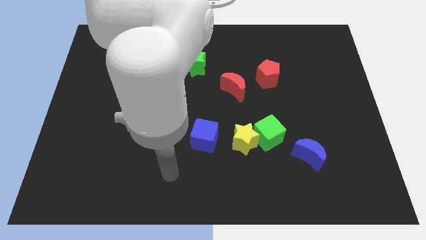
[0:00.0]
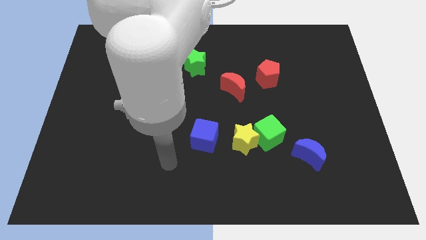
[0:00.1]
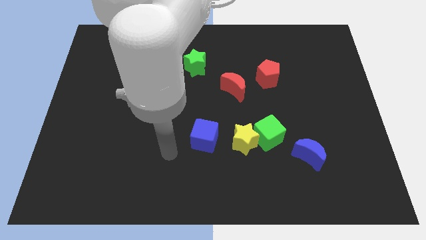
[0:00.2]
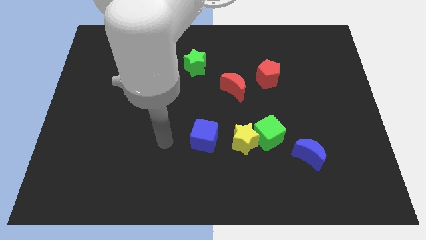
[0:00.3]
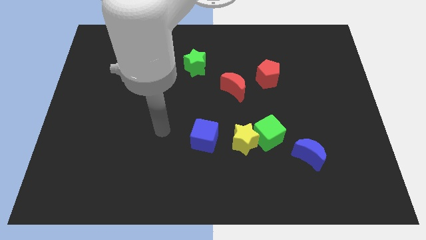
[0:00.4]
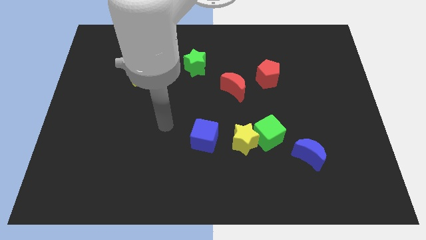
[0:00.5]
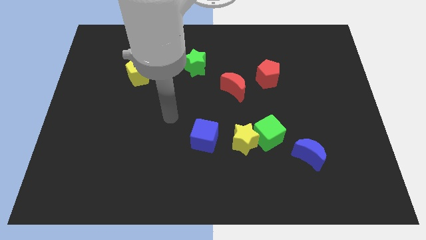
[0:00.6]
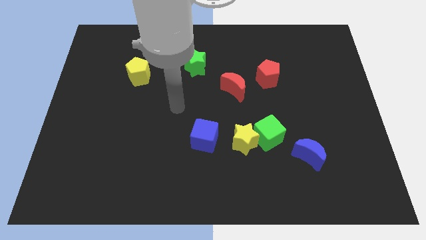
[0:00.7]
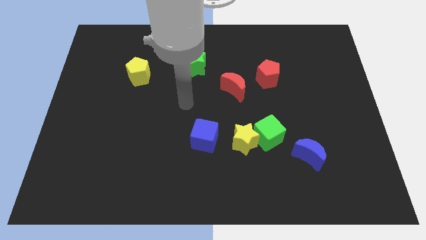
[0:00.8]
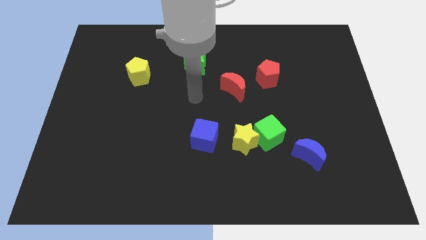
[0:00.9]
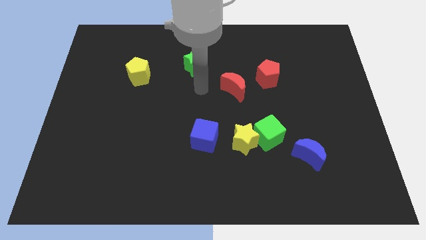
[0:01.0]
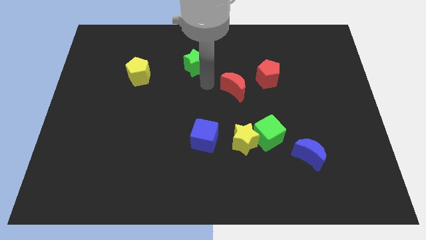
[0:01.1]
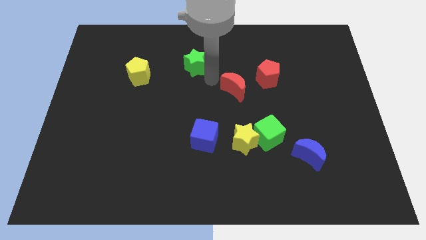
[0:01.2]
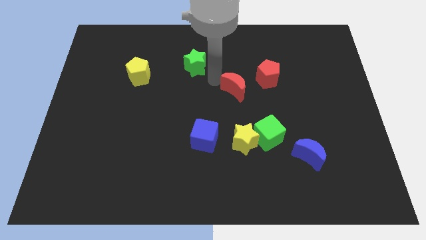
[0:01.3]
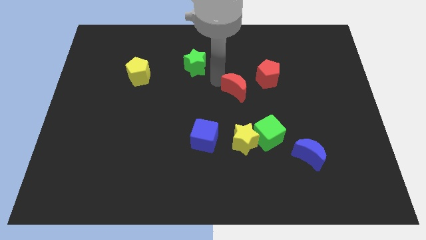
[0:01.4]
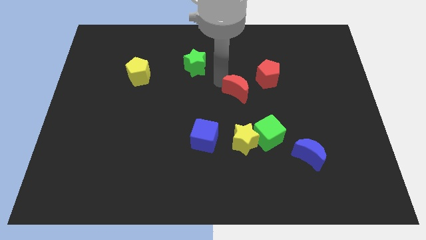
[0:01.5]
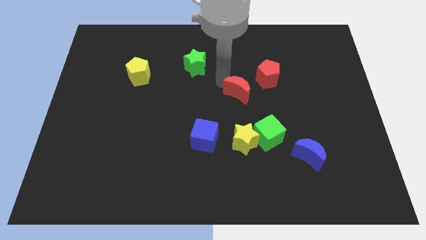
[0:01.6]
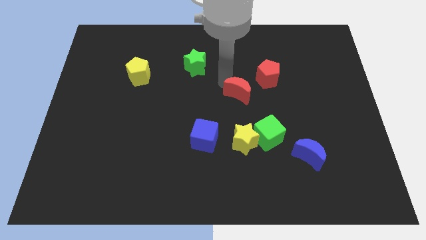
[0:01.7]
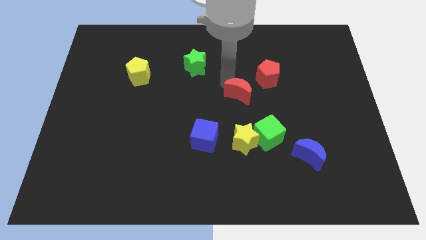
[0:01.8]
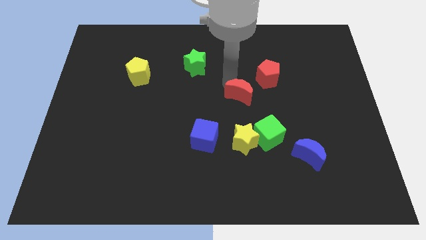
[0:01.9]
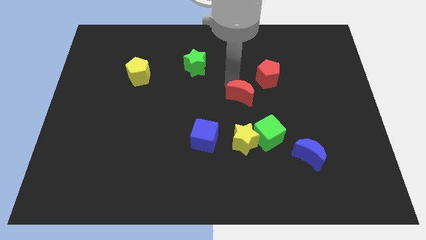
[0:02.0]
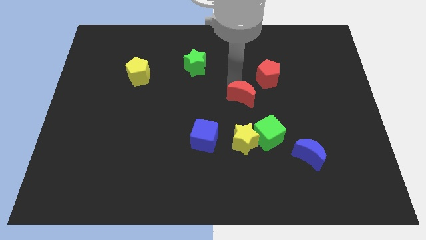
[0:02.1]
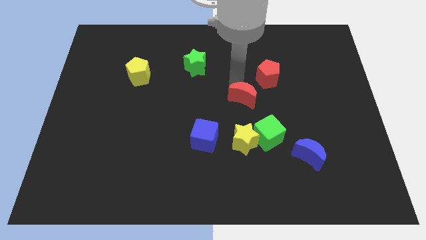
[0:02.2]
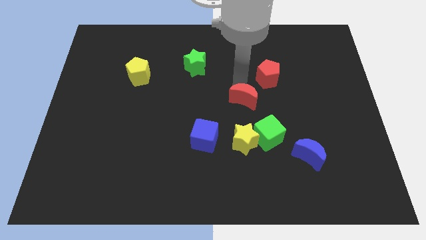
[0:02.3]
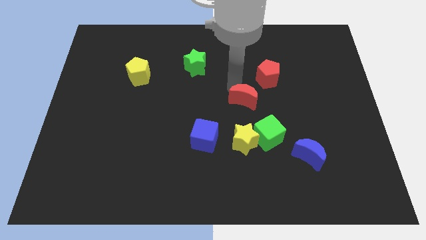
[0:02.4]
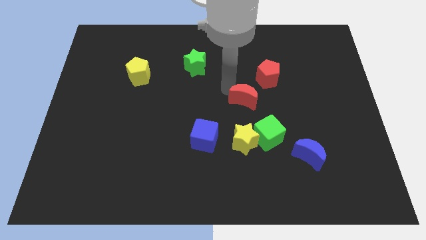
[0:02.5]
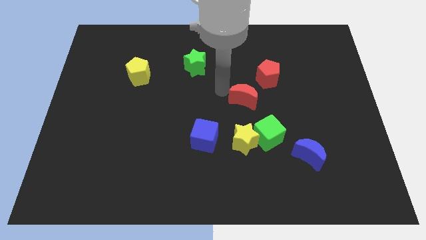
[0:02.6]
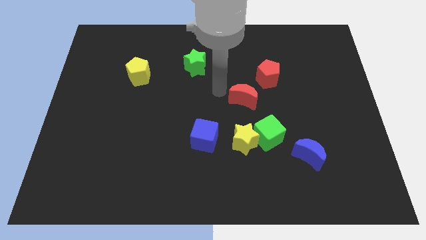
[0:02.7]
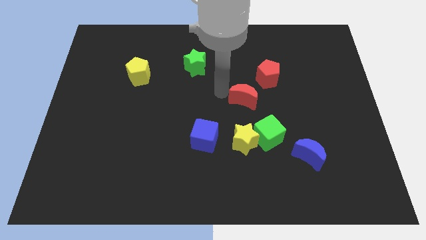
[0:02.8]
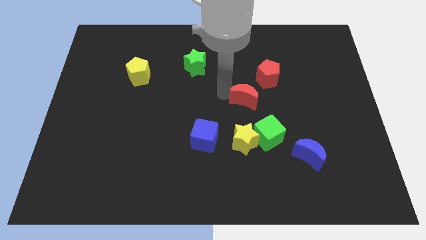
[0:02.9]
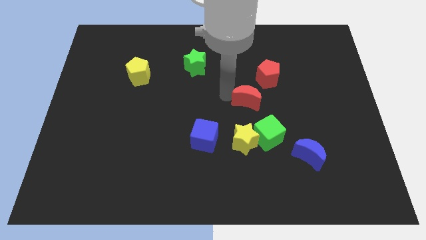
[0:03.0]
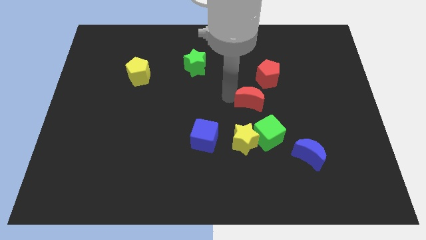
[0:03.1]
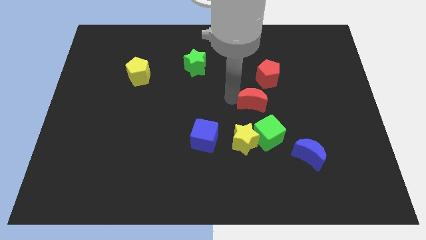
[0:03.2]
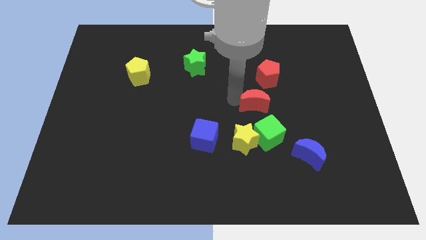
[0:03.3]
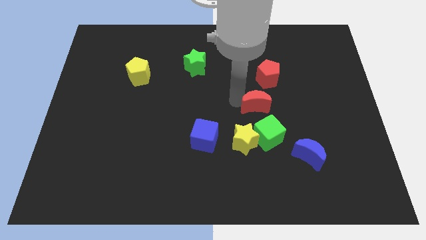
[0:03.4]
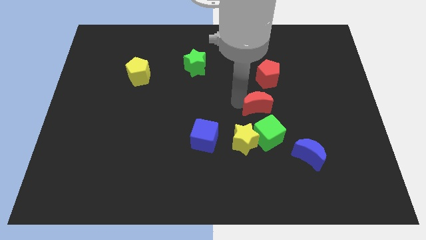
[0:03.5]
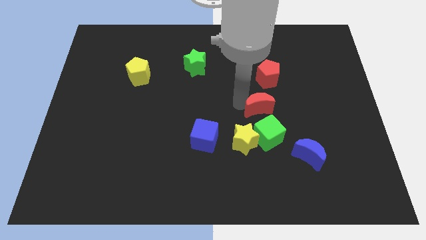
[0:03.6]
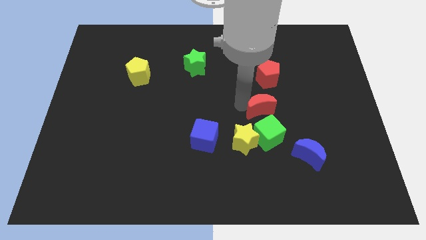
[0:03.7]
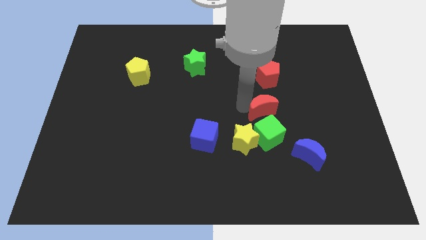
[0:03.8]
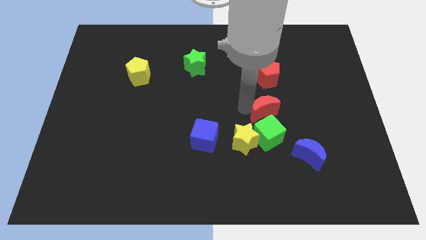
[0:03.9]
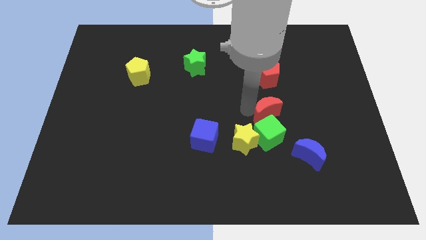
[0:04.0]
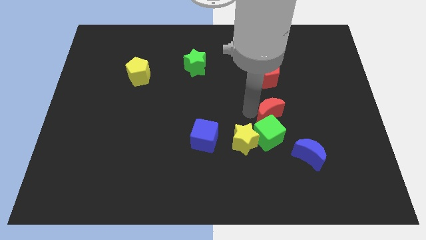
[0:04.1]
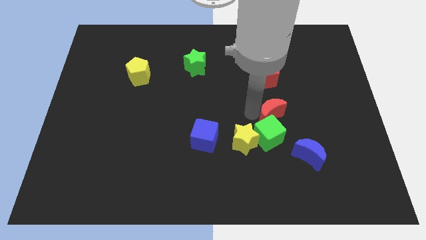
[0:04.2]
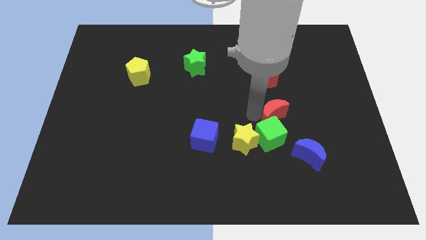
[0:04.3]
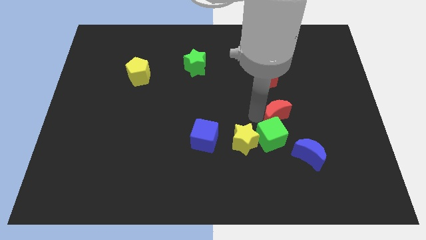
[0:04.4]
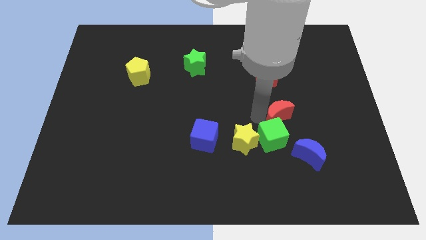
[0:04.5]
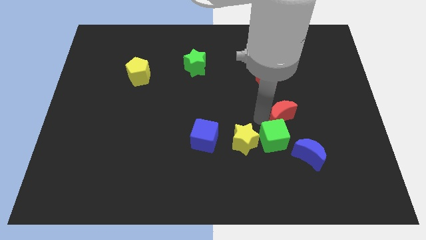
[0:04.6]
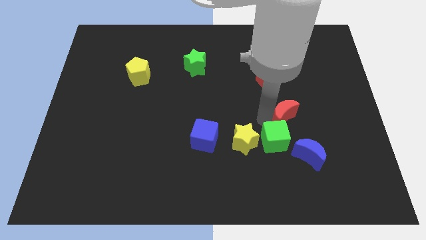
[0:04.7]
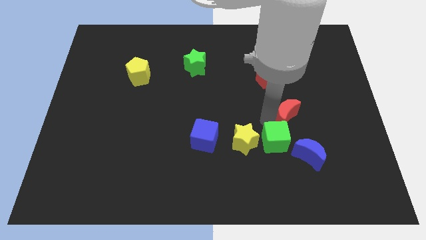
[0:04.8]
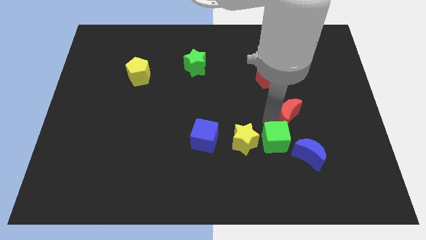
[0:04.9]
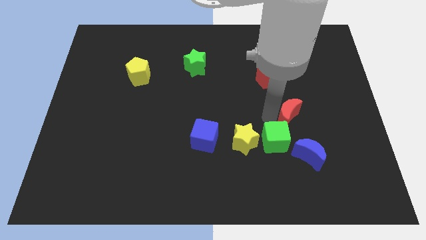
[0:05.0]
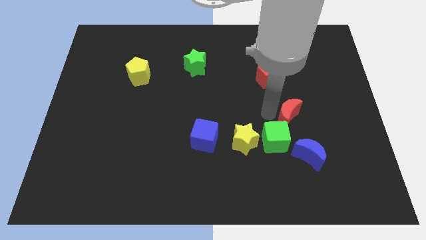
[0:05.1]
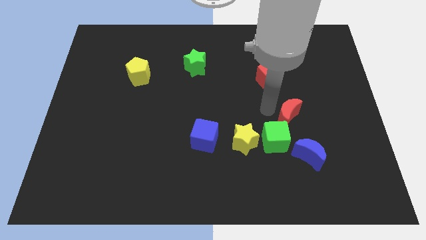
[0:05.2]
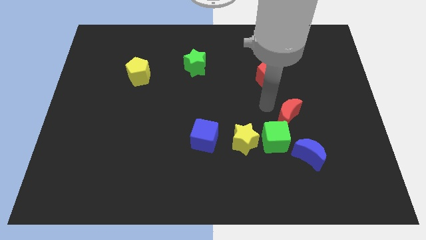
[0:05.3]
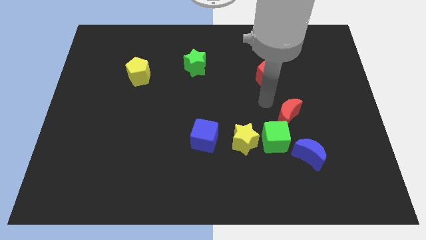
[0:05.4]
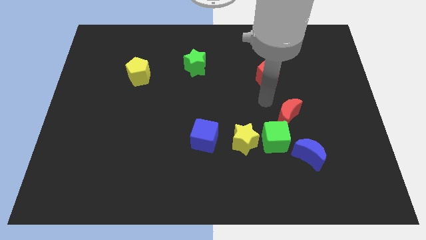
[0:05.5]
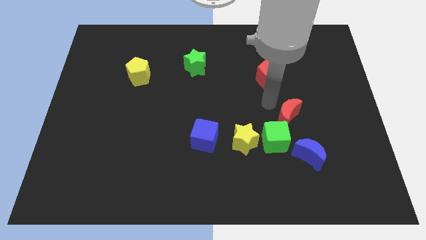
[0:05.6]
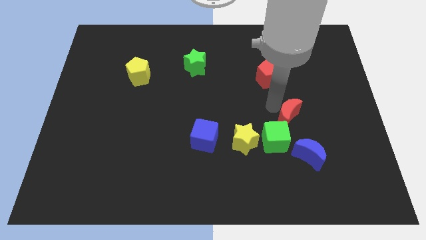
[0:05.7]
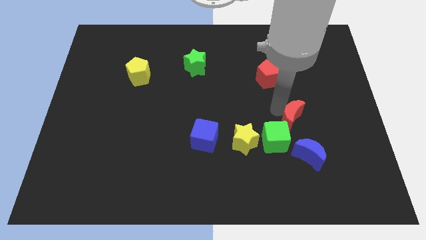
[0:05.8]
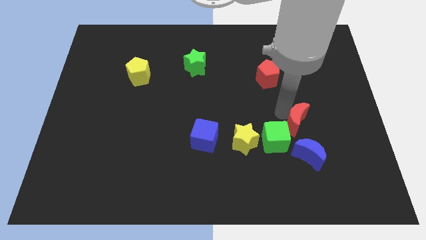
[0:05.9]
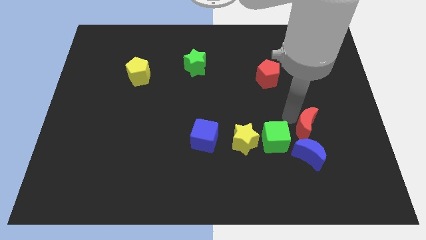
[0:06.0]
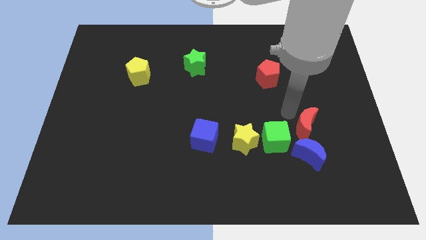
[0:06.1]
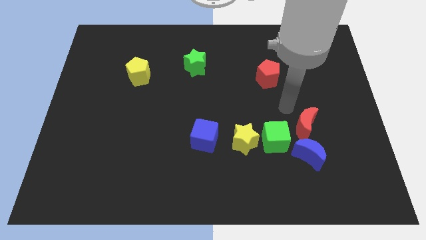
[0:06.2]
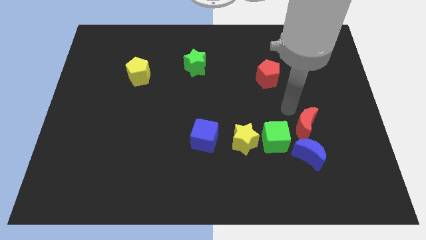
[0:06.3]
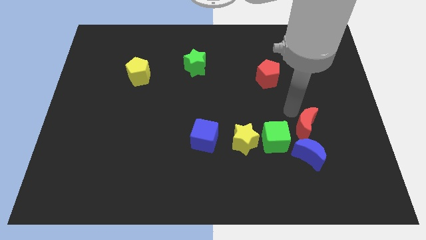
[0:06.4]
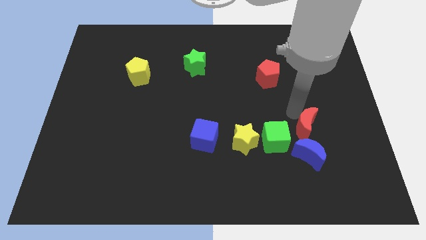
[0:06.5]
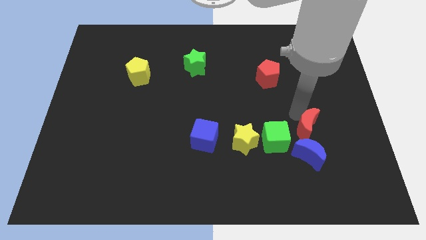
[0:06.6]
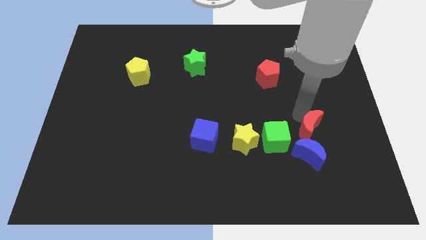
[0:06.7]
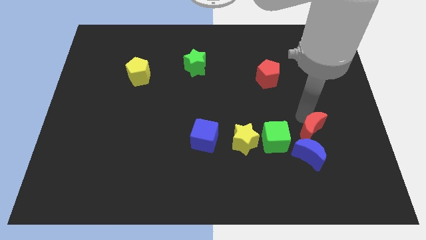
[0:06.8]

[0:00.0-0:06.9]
slide the red moon down and right

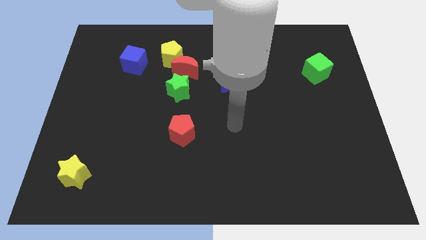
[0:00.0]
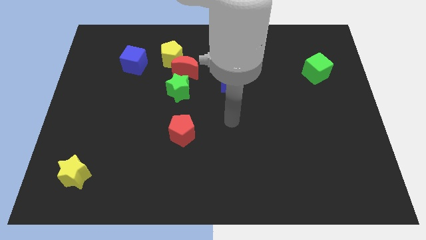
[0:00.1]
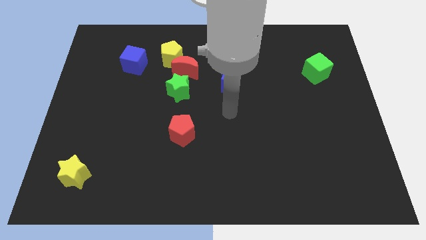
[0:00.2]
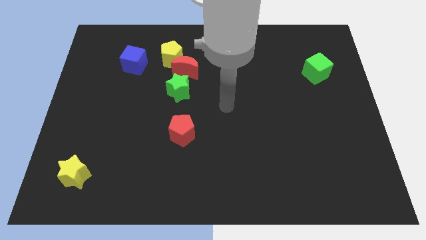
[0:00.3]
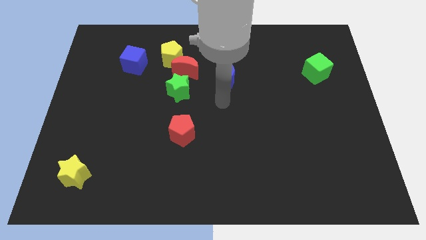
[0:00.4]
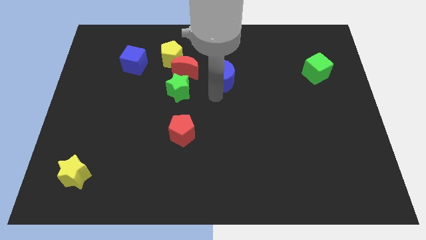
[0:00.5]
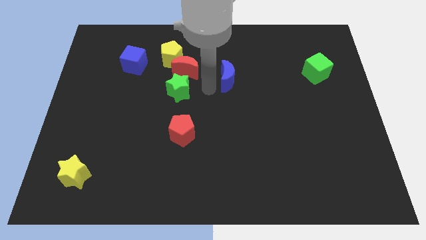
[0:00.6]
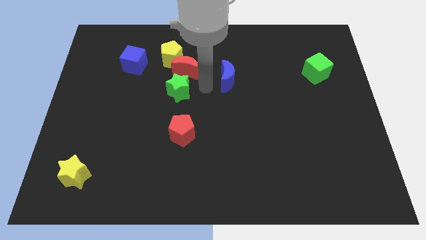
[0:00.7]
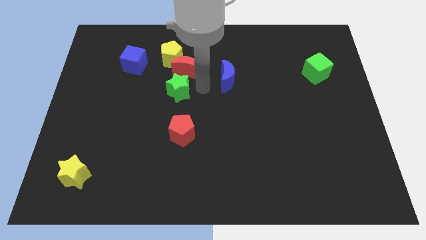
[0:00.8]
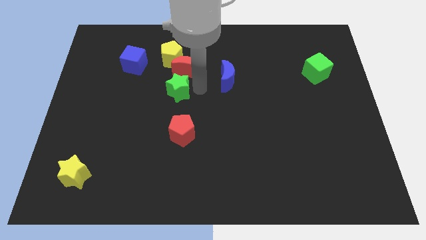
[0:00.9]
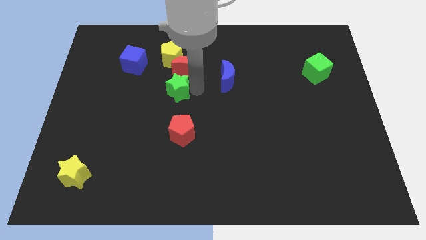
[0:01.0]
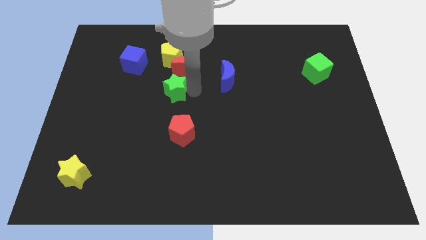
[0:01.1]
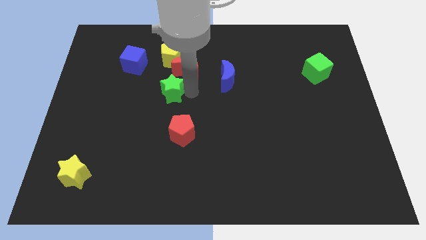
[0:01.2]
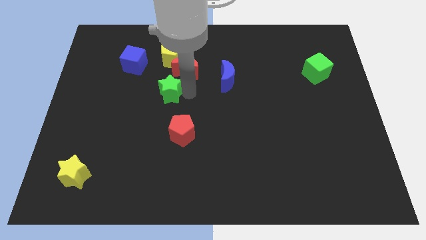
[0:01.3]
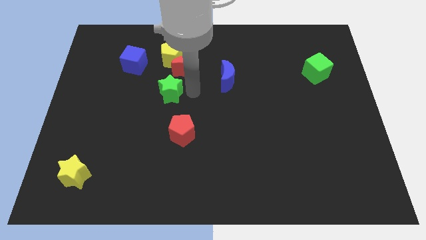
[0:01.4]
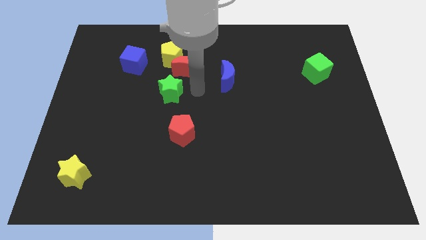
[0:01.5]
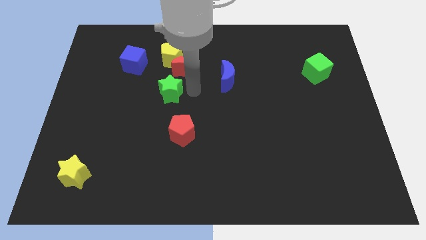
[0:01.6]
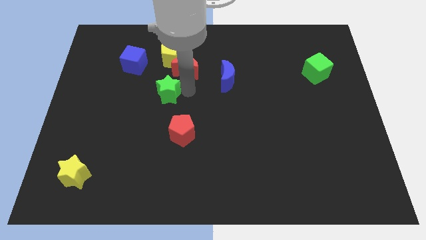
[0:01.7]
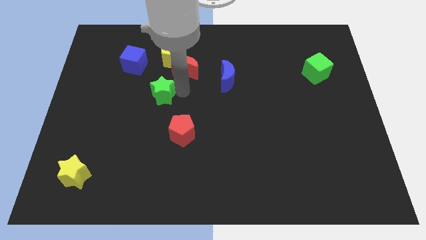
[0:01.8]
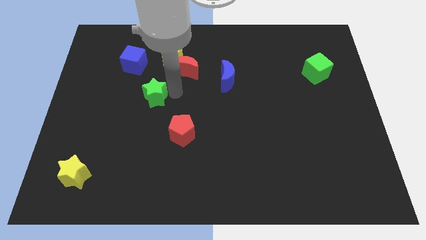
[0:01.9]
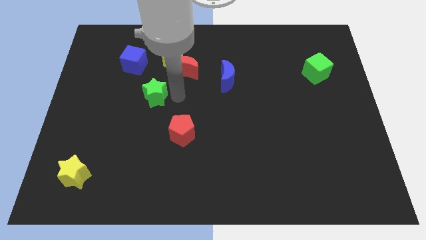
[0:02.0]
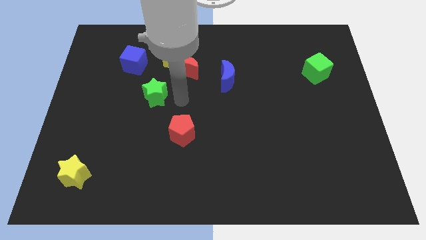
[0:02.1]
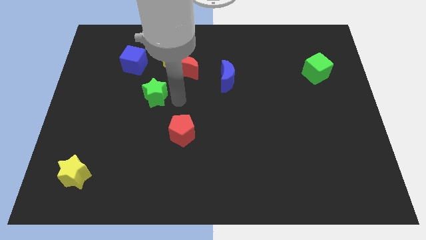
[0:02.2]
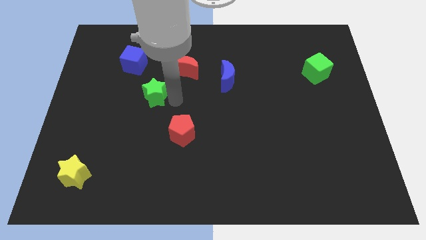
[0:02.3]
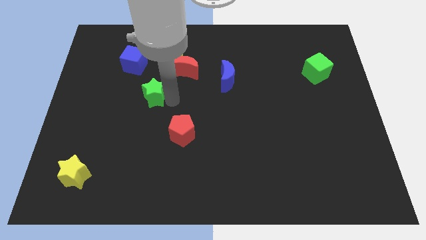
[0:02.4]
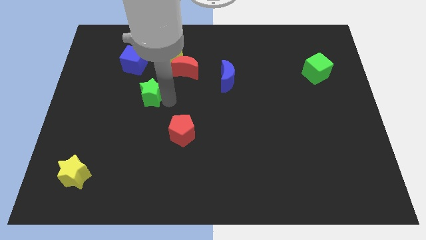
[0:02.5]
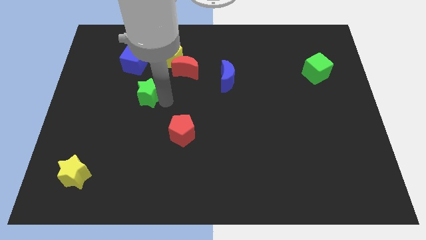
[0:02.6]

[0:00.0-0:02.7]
move the green star to the left slightly
